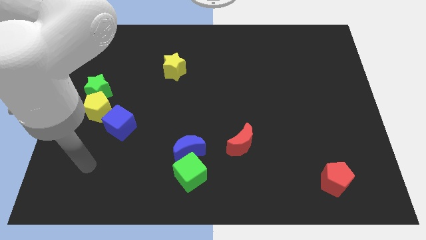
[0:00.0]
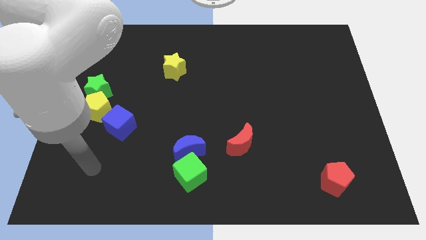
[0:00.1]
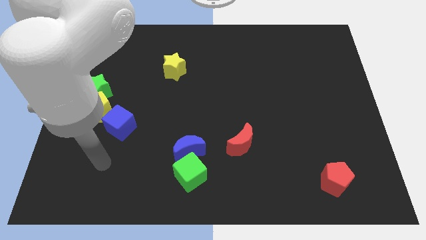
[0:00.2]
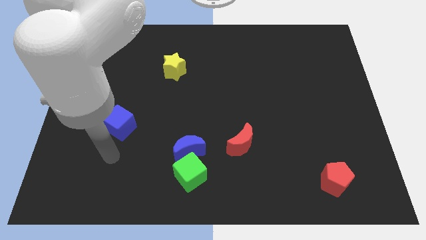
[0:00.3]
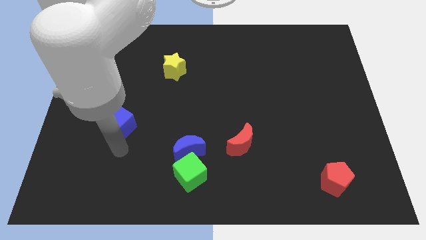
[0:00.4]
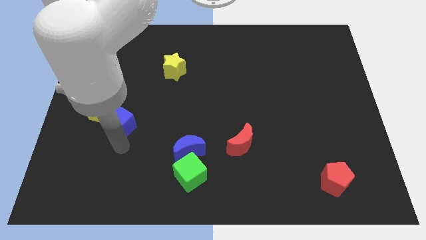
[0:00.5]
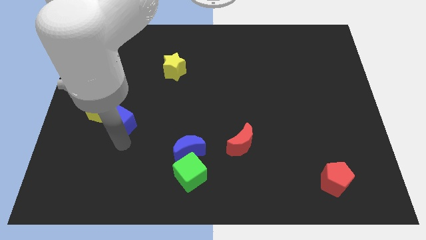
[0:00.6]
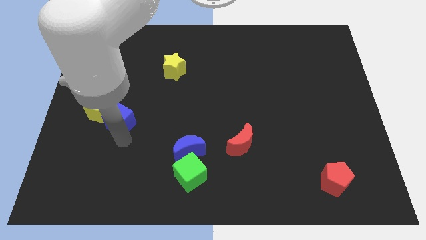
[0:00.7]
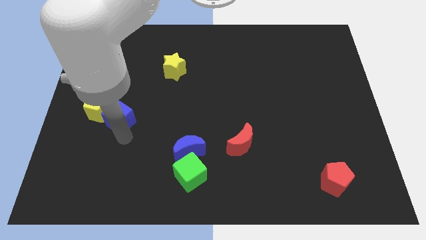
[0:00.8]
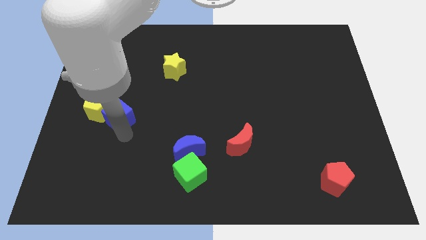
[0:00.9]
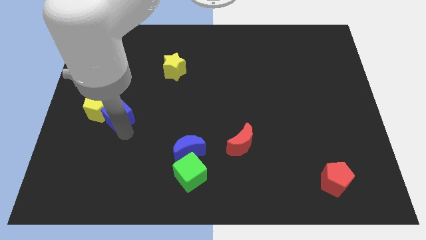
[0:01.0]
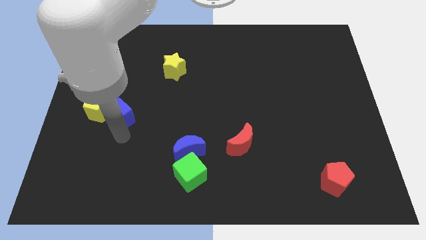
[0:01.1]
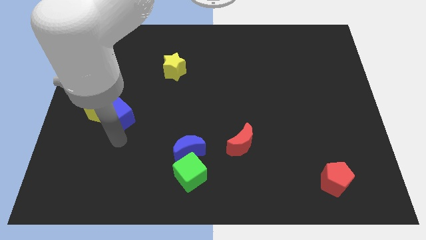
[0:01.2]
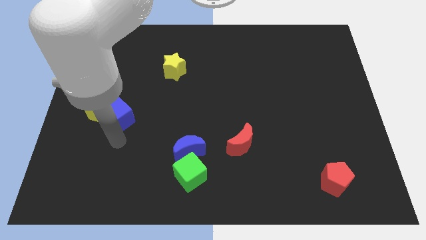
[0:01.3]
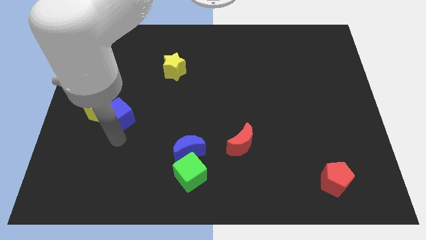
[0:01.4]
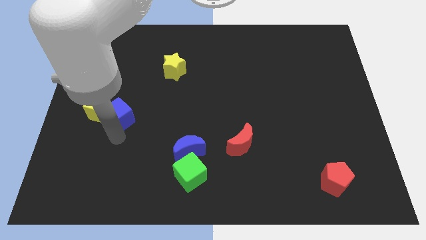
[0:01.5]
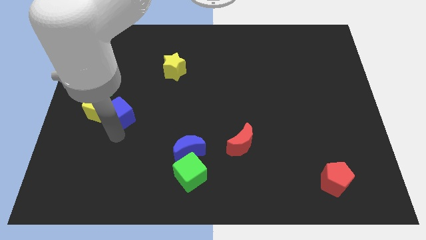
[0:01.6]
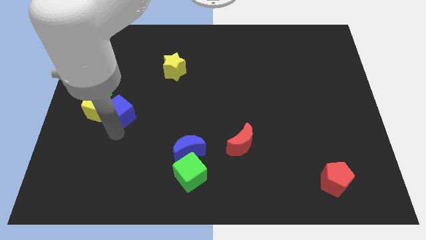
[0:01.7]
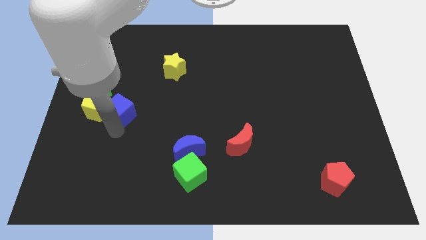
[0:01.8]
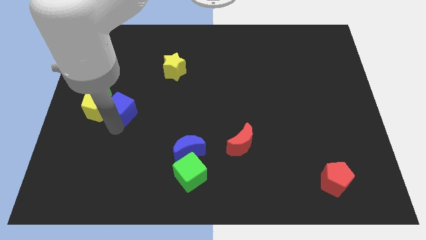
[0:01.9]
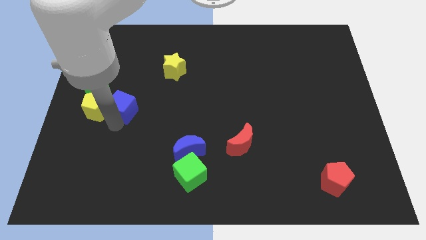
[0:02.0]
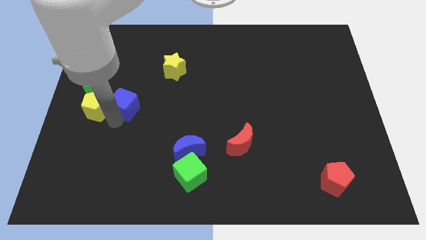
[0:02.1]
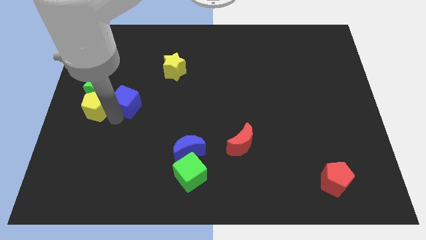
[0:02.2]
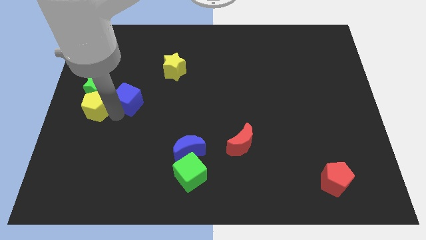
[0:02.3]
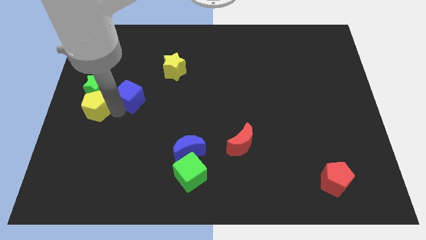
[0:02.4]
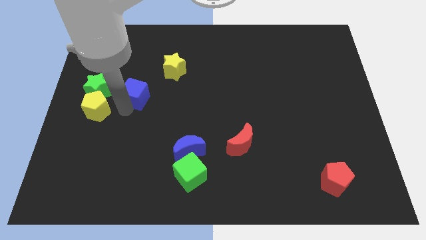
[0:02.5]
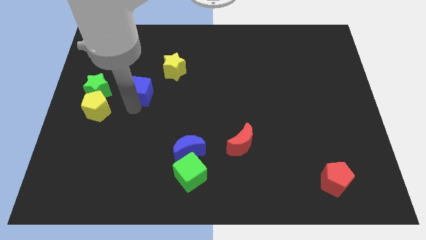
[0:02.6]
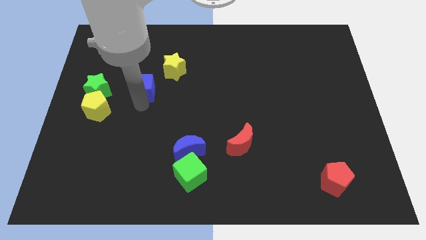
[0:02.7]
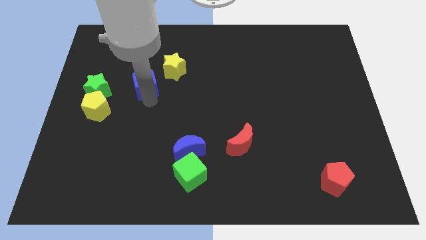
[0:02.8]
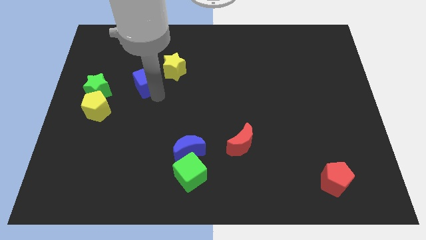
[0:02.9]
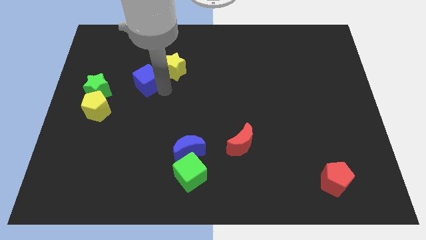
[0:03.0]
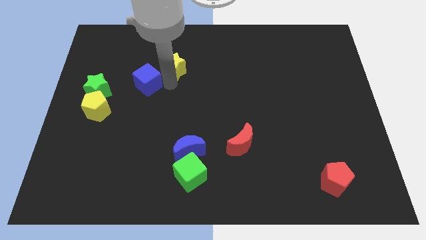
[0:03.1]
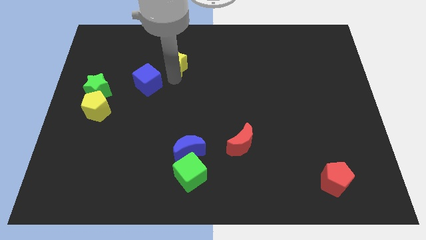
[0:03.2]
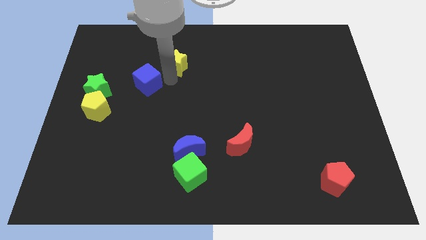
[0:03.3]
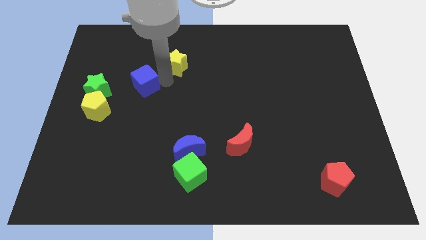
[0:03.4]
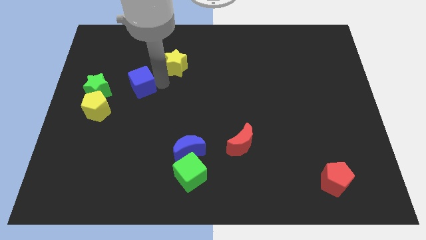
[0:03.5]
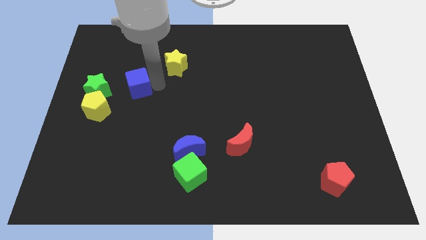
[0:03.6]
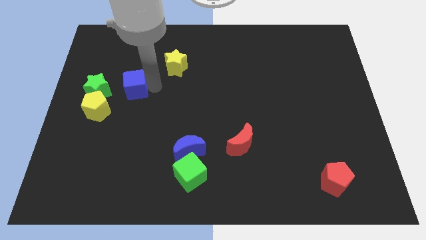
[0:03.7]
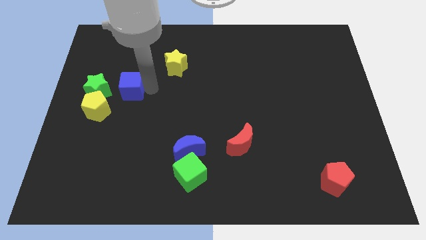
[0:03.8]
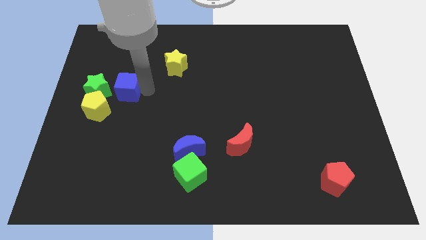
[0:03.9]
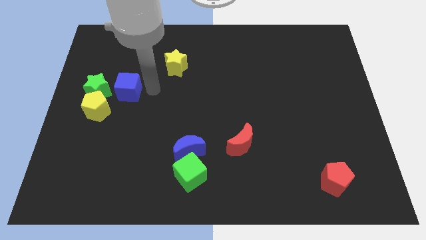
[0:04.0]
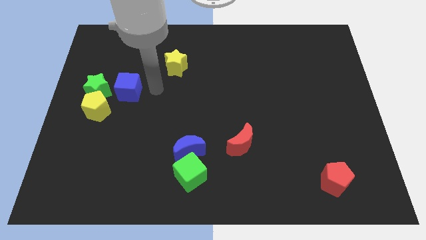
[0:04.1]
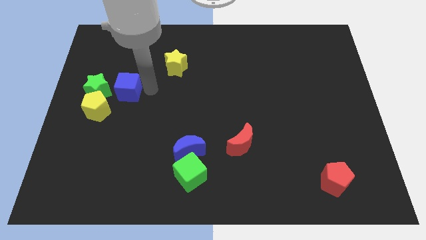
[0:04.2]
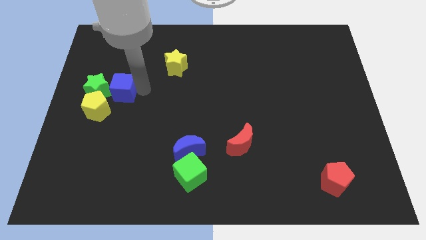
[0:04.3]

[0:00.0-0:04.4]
slide the blue cube to the green star

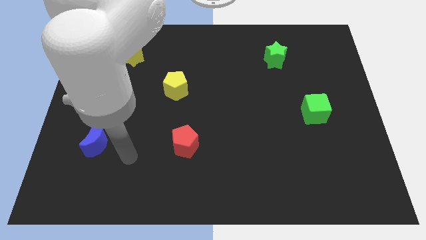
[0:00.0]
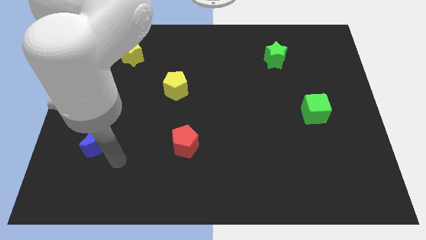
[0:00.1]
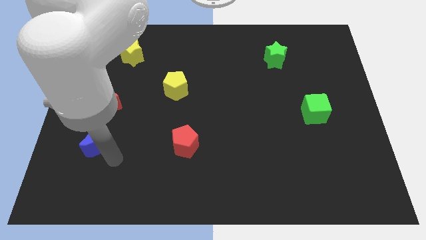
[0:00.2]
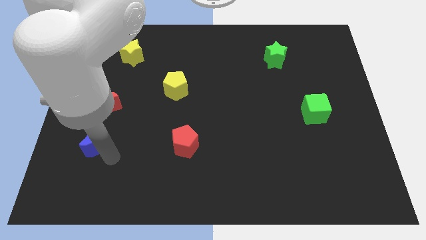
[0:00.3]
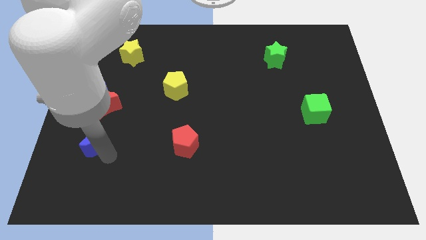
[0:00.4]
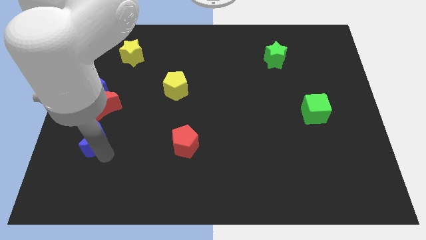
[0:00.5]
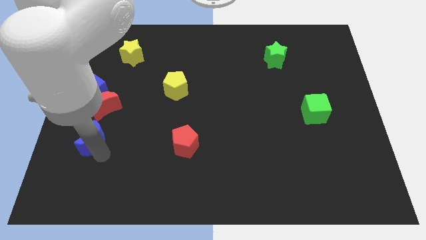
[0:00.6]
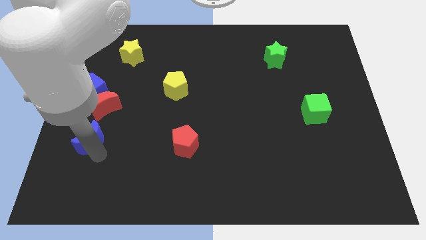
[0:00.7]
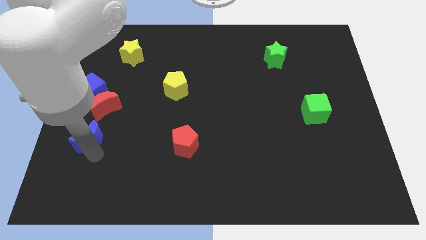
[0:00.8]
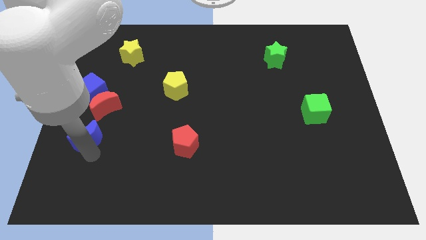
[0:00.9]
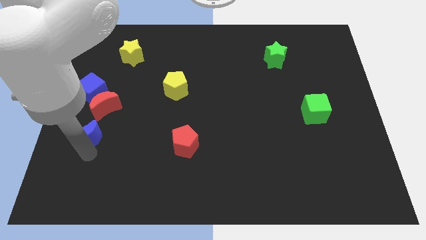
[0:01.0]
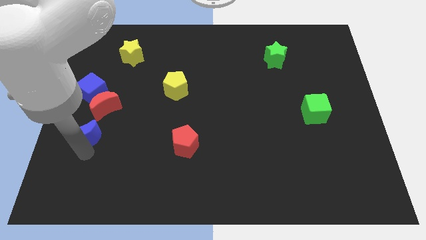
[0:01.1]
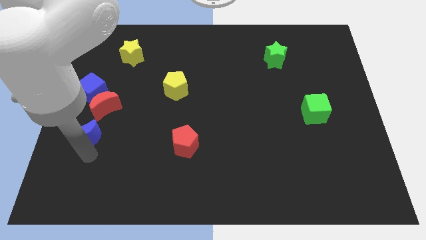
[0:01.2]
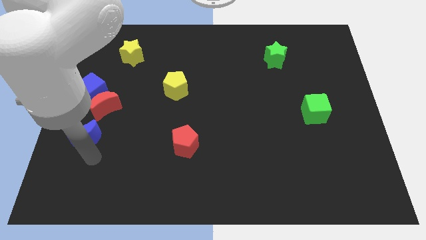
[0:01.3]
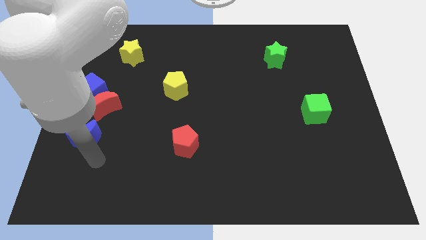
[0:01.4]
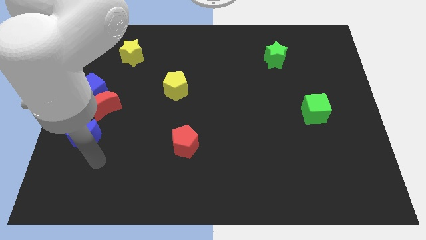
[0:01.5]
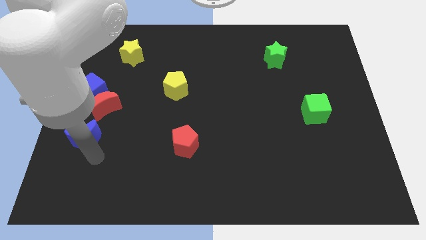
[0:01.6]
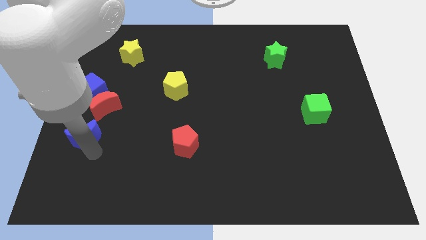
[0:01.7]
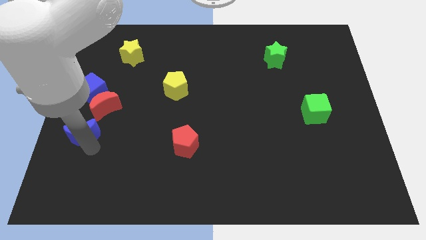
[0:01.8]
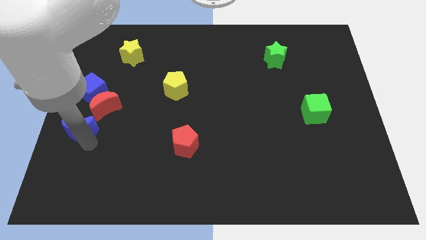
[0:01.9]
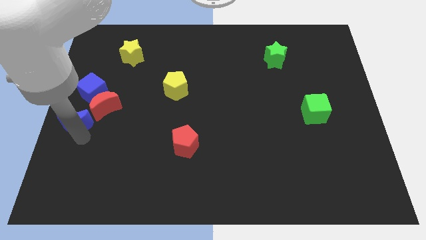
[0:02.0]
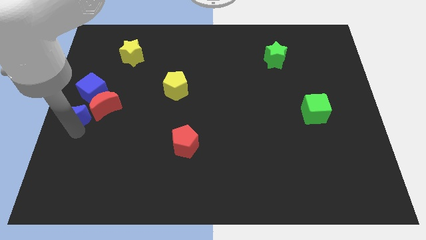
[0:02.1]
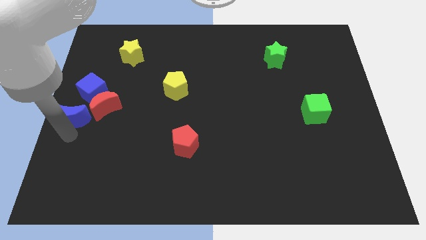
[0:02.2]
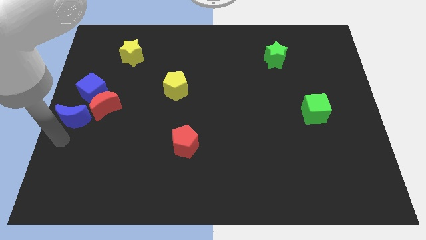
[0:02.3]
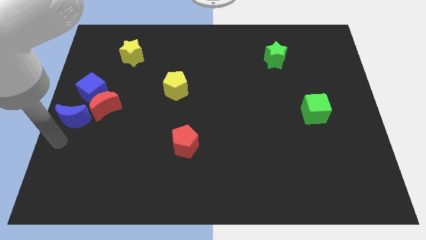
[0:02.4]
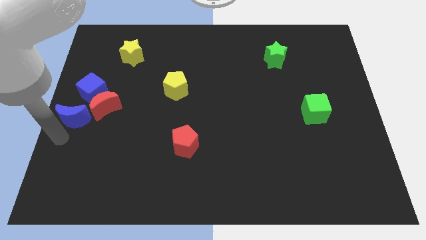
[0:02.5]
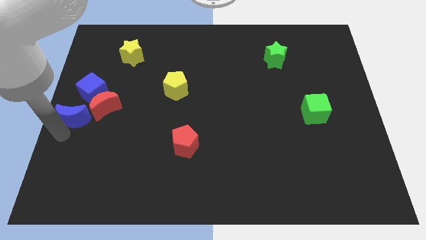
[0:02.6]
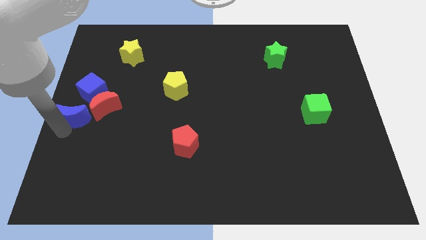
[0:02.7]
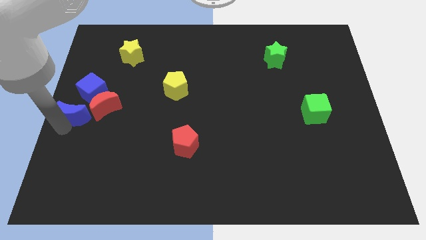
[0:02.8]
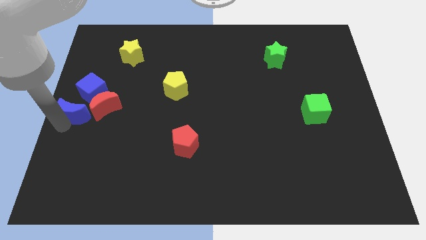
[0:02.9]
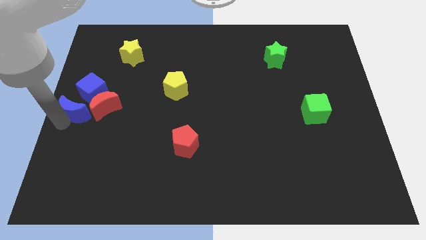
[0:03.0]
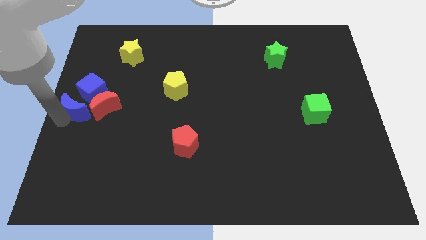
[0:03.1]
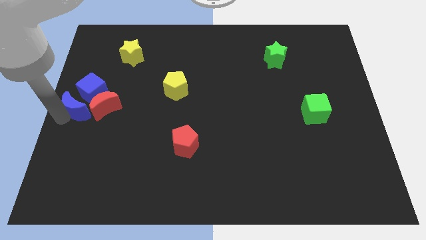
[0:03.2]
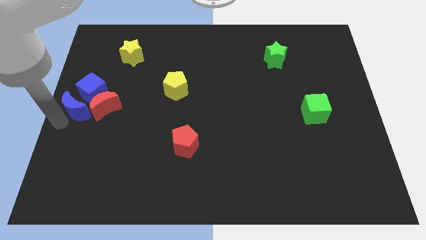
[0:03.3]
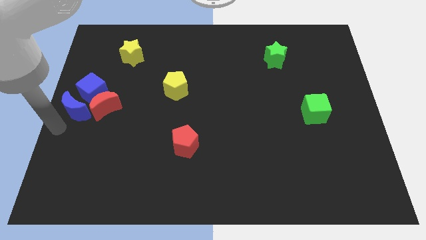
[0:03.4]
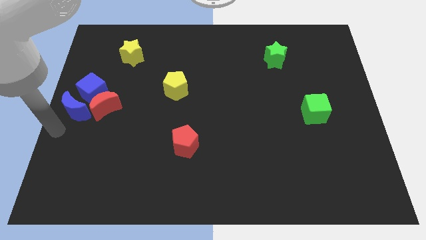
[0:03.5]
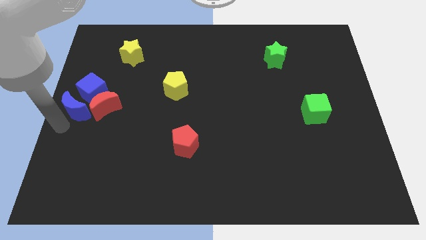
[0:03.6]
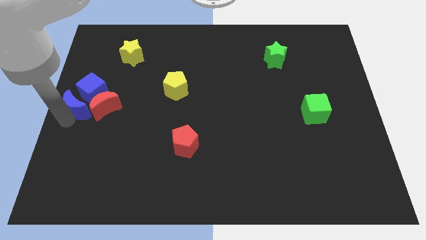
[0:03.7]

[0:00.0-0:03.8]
move the blue moon towards the blue cube
